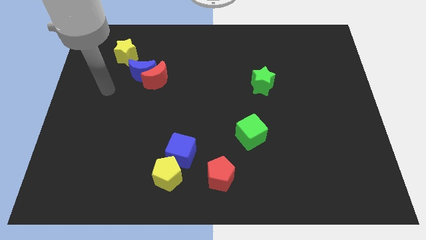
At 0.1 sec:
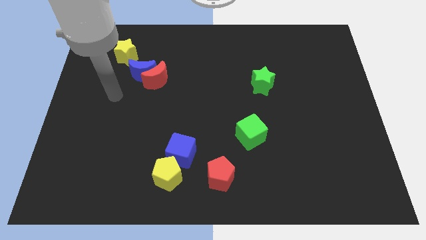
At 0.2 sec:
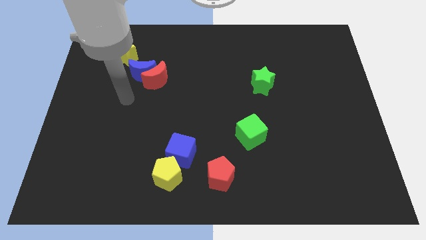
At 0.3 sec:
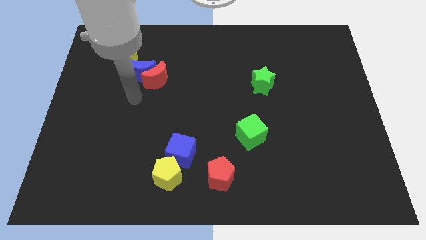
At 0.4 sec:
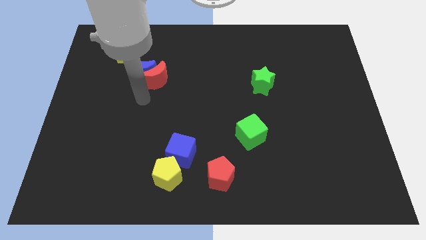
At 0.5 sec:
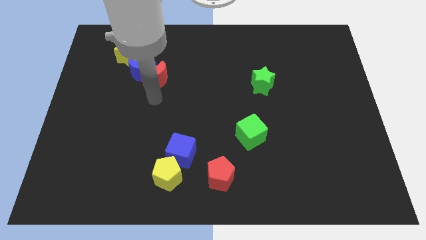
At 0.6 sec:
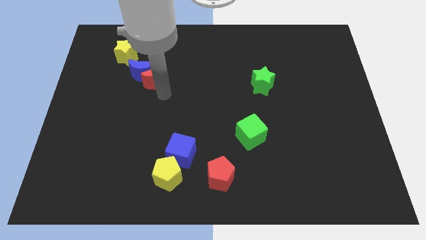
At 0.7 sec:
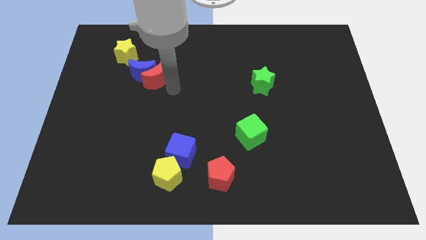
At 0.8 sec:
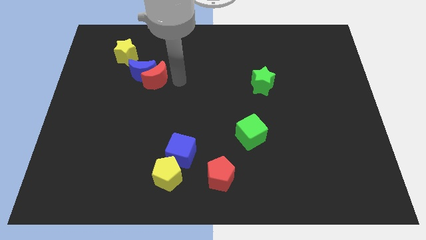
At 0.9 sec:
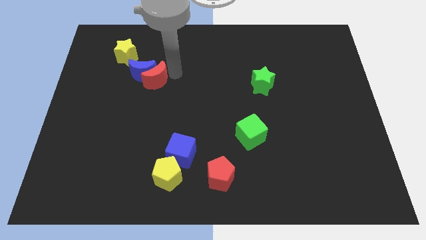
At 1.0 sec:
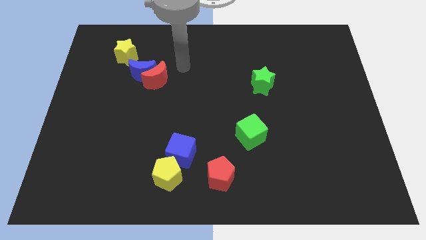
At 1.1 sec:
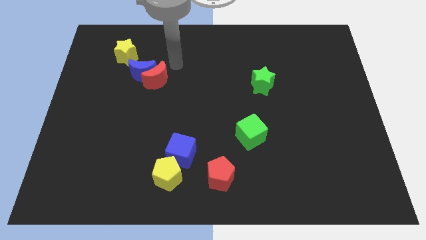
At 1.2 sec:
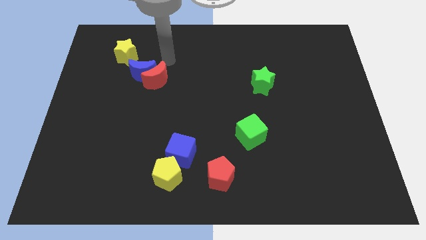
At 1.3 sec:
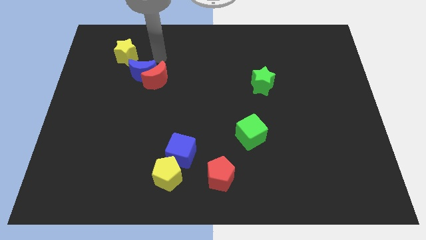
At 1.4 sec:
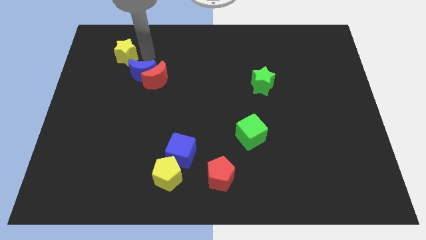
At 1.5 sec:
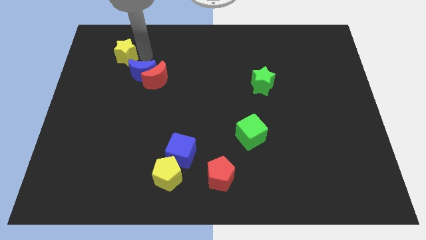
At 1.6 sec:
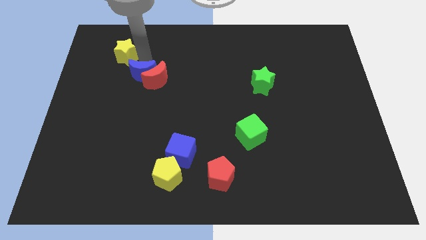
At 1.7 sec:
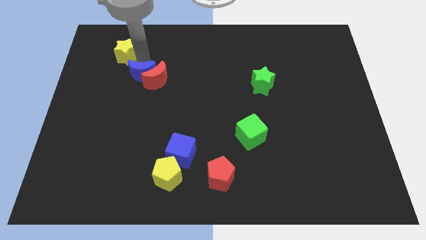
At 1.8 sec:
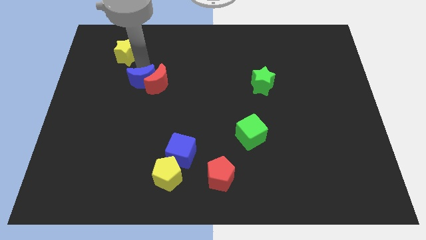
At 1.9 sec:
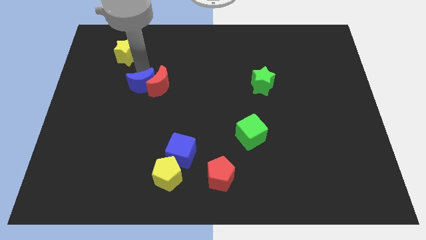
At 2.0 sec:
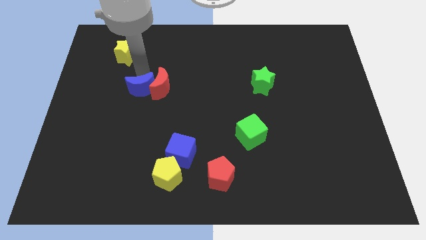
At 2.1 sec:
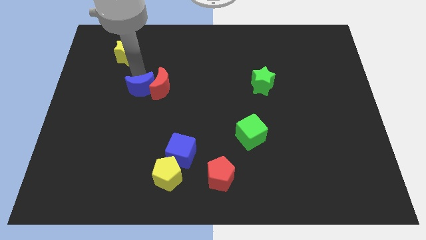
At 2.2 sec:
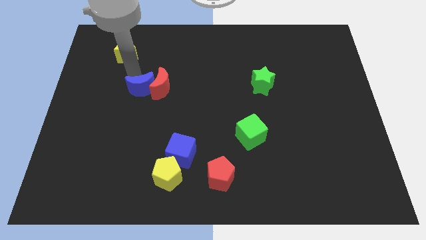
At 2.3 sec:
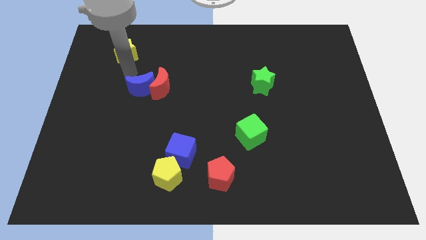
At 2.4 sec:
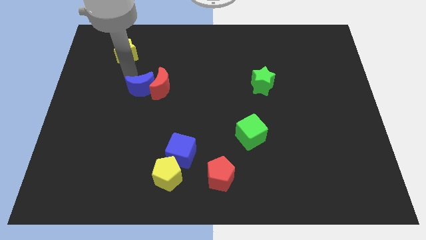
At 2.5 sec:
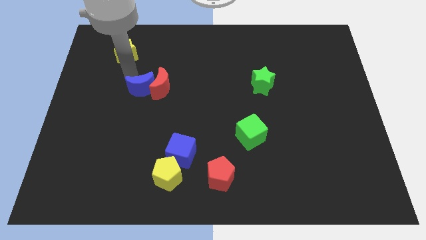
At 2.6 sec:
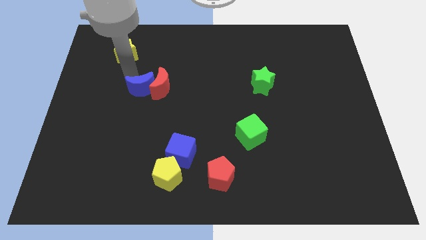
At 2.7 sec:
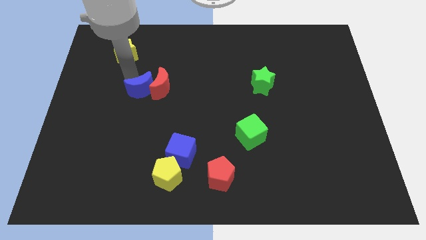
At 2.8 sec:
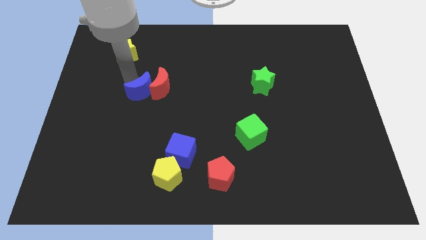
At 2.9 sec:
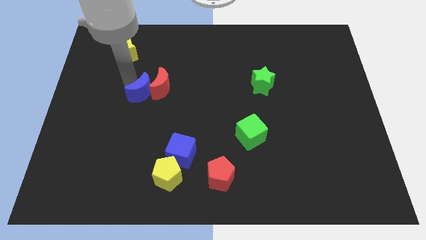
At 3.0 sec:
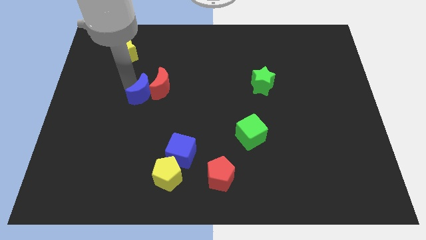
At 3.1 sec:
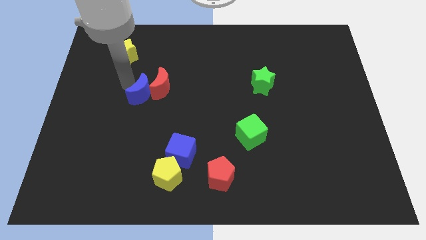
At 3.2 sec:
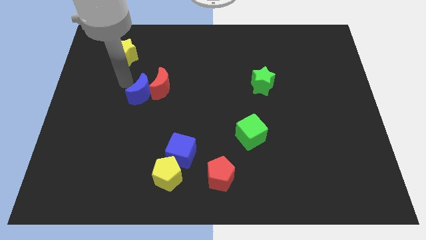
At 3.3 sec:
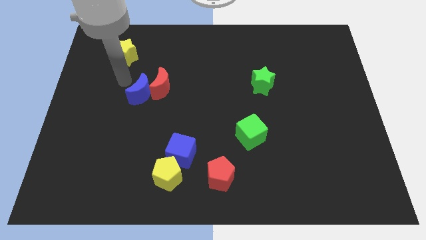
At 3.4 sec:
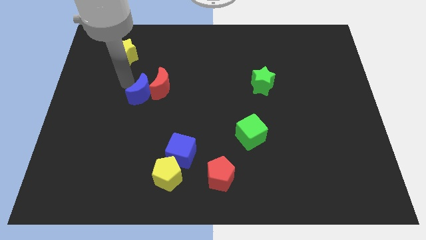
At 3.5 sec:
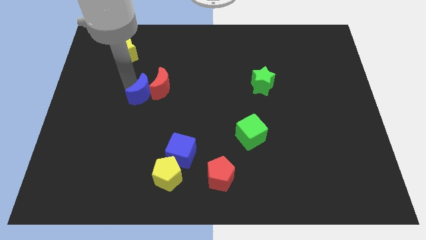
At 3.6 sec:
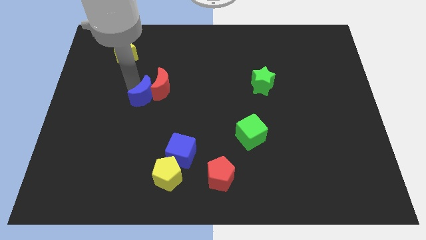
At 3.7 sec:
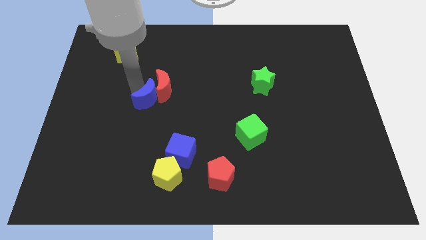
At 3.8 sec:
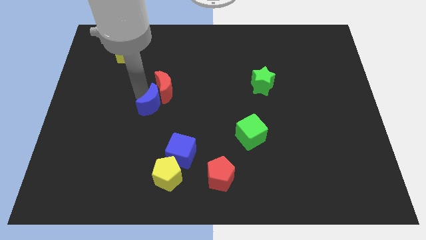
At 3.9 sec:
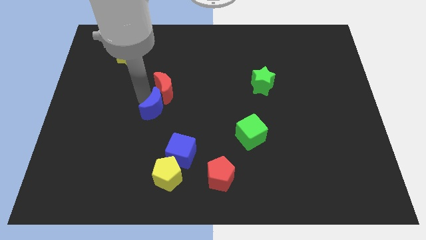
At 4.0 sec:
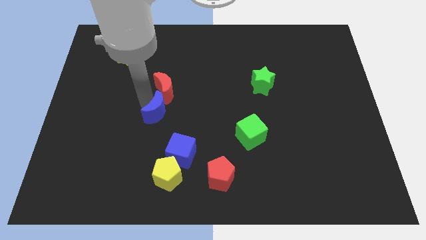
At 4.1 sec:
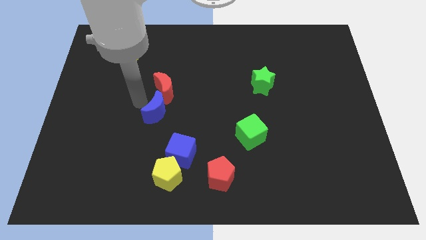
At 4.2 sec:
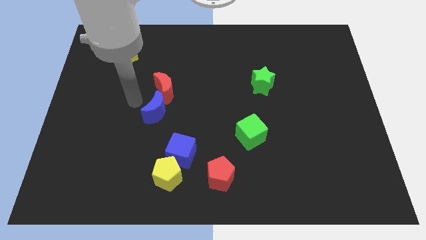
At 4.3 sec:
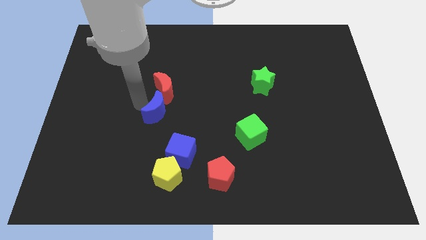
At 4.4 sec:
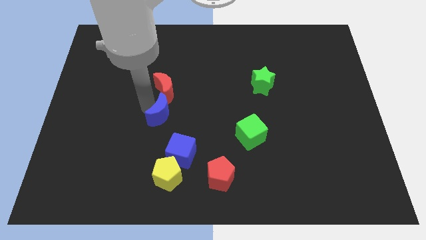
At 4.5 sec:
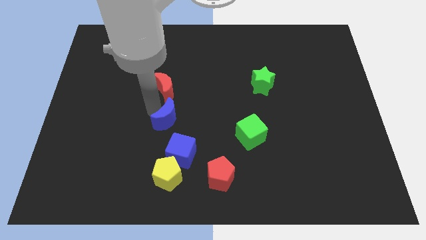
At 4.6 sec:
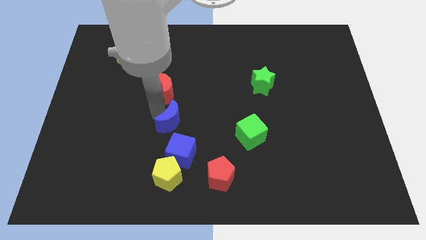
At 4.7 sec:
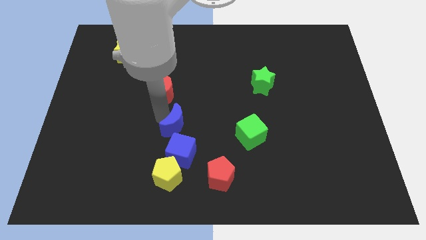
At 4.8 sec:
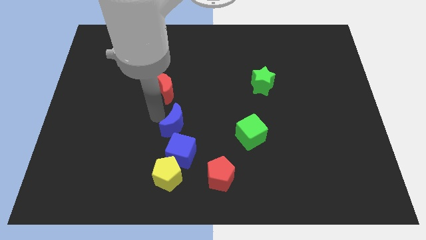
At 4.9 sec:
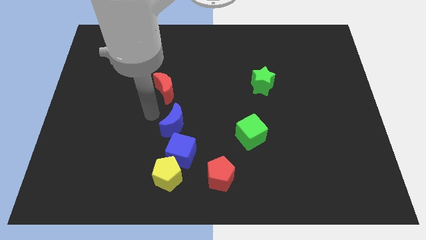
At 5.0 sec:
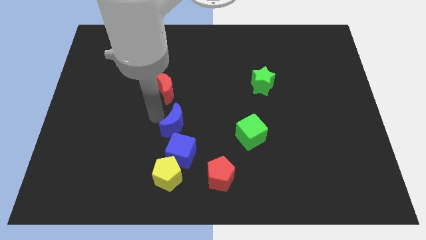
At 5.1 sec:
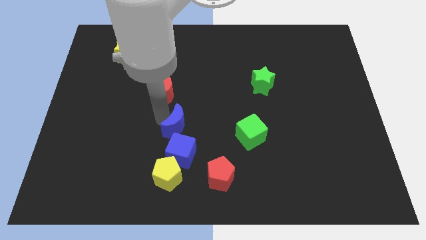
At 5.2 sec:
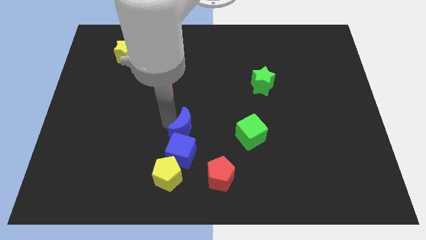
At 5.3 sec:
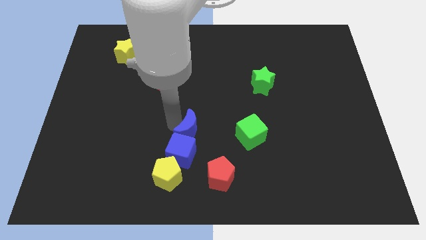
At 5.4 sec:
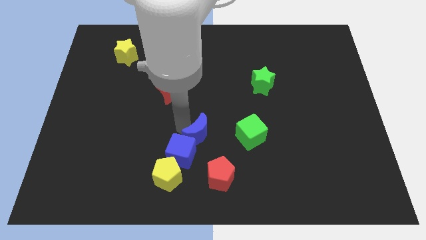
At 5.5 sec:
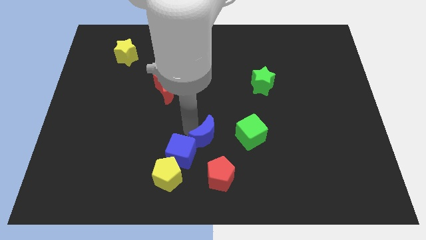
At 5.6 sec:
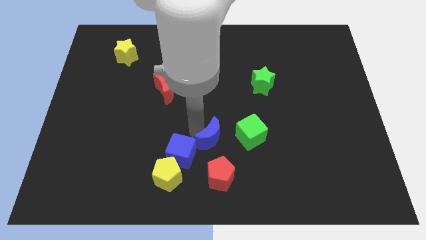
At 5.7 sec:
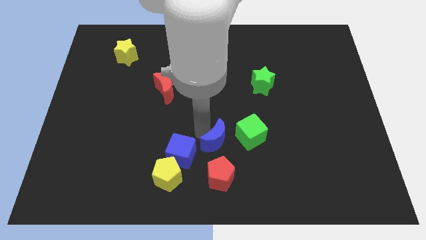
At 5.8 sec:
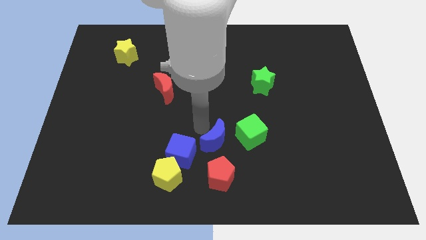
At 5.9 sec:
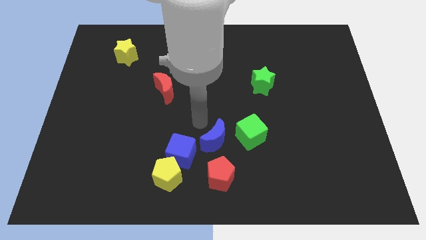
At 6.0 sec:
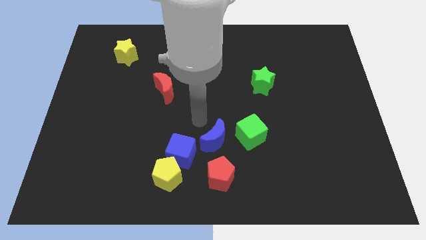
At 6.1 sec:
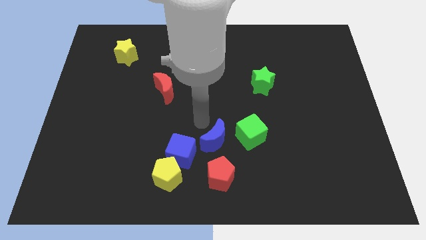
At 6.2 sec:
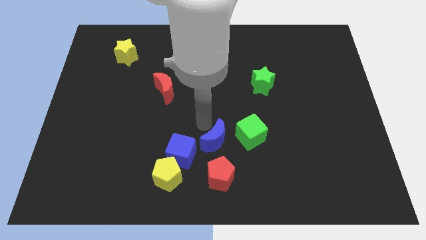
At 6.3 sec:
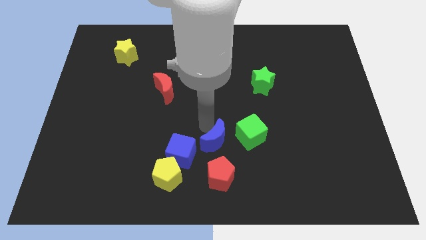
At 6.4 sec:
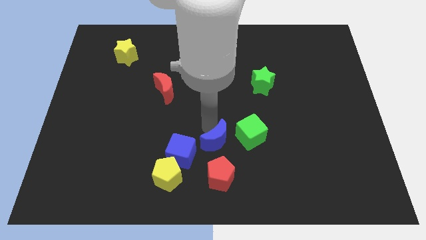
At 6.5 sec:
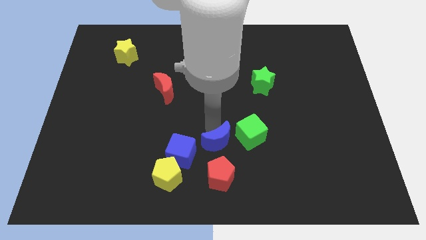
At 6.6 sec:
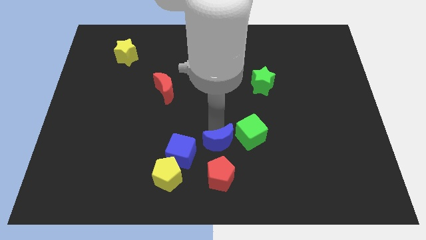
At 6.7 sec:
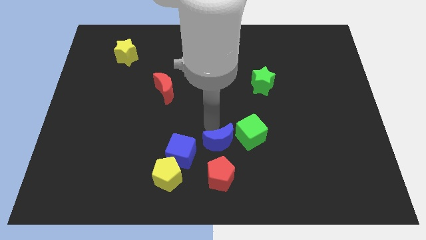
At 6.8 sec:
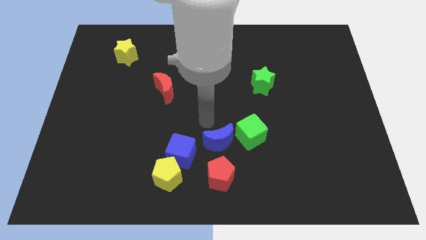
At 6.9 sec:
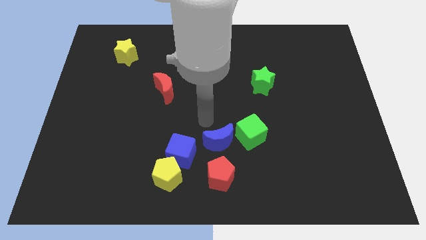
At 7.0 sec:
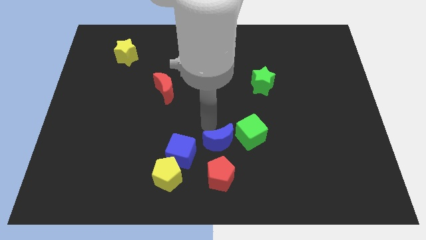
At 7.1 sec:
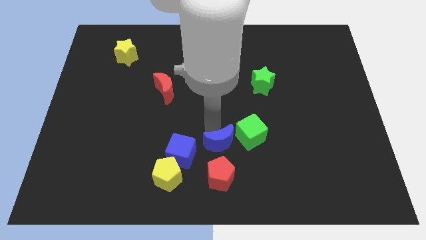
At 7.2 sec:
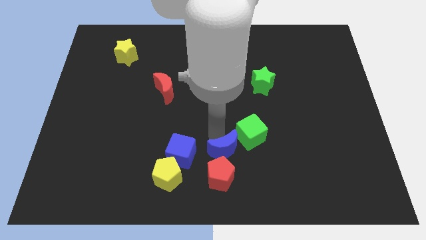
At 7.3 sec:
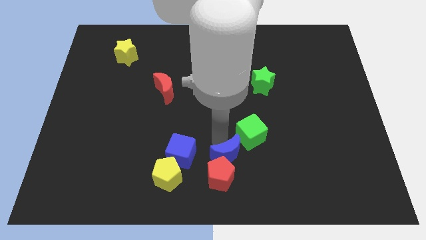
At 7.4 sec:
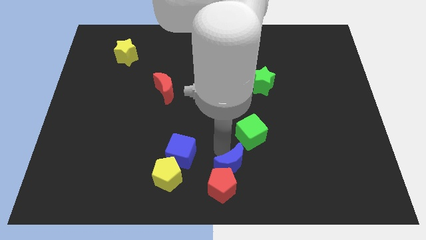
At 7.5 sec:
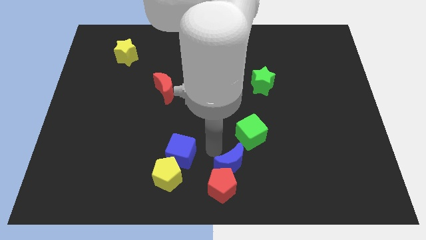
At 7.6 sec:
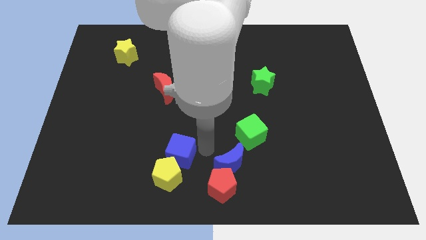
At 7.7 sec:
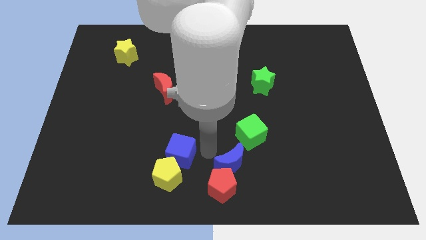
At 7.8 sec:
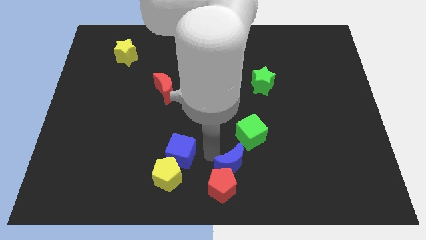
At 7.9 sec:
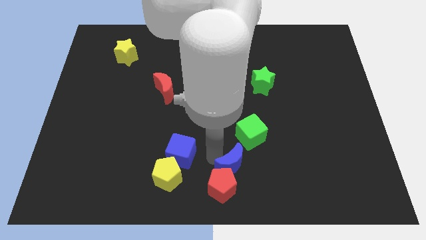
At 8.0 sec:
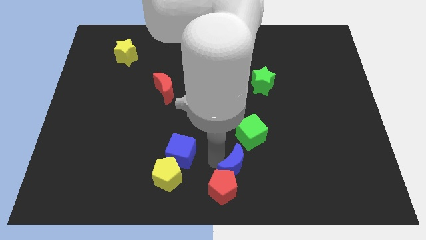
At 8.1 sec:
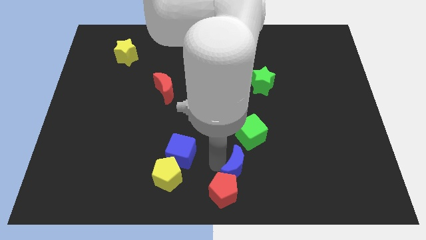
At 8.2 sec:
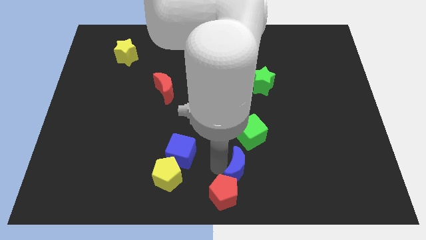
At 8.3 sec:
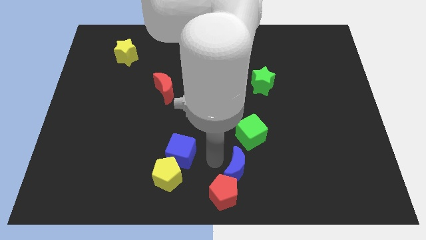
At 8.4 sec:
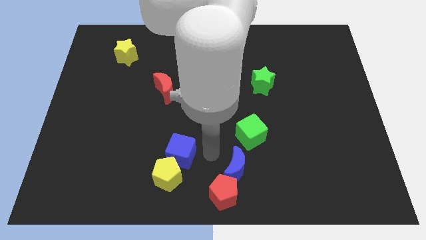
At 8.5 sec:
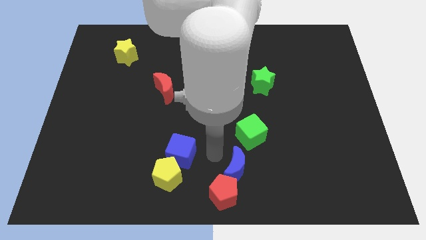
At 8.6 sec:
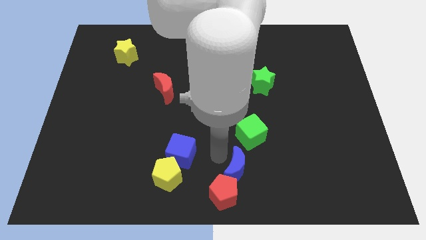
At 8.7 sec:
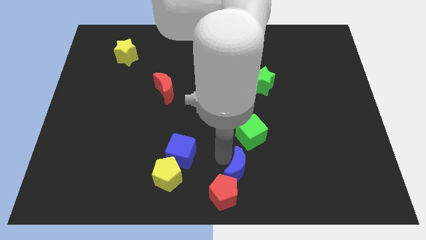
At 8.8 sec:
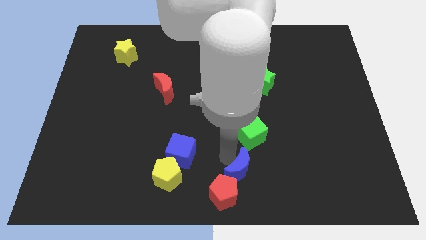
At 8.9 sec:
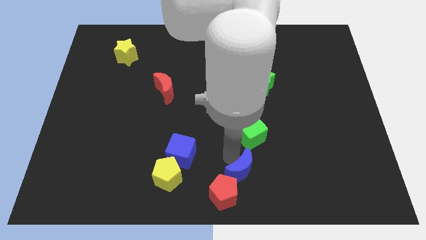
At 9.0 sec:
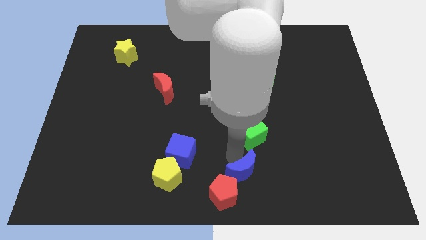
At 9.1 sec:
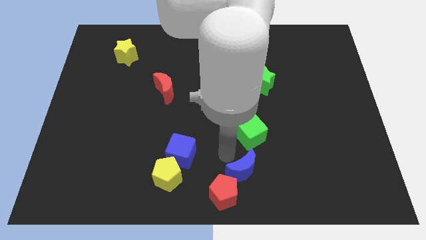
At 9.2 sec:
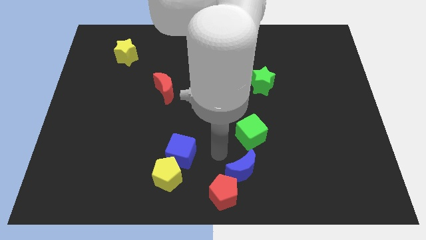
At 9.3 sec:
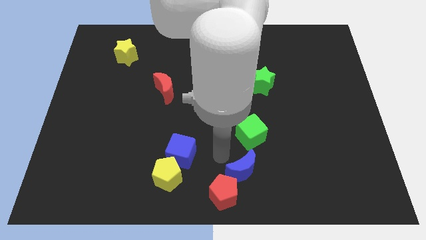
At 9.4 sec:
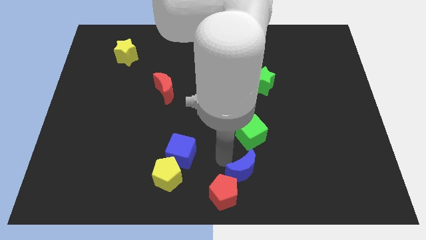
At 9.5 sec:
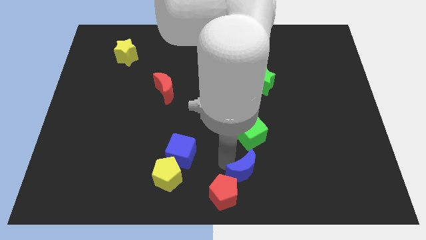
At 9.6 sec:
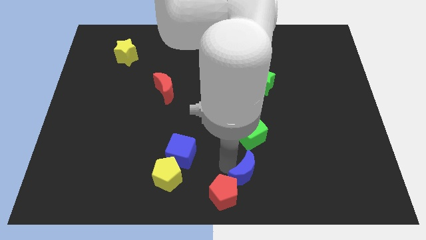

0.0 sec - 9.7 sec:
push the blue moon right of the red pentagon
